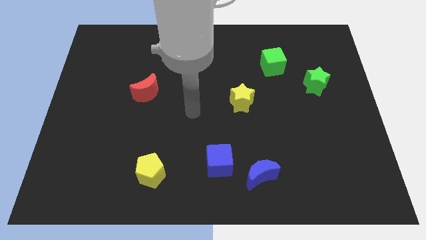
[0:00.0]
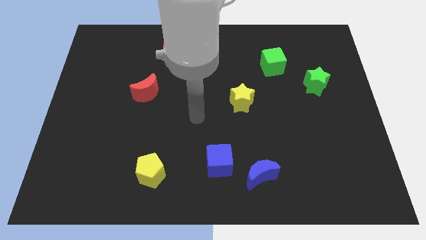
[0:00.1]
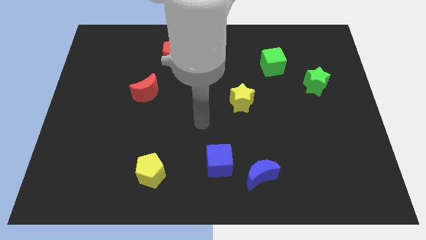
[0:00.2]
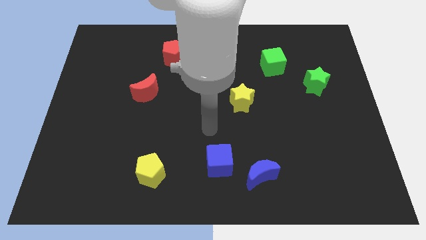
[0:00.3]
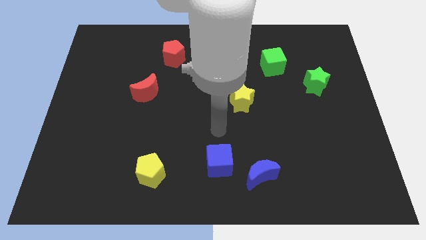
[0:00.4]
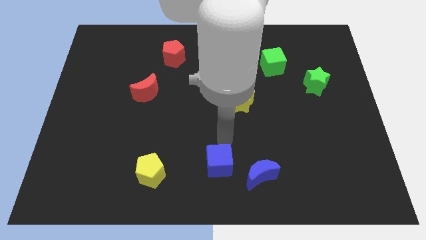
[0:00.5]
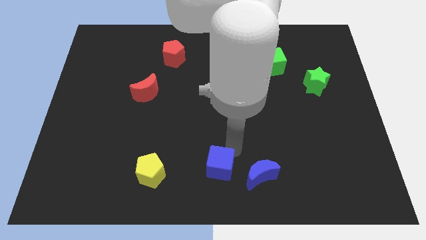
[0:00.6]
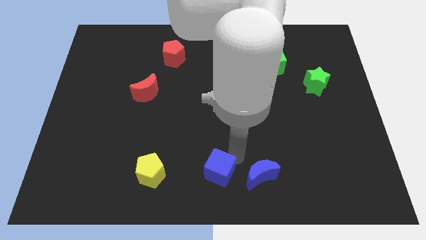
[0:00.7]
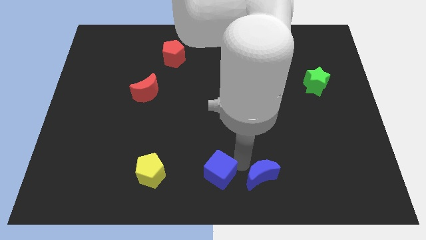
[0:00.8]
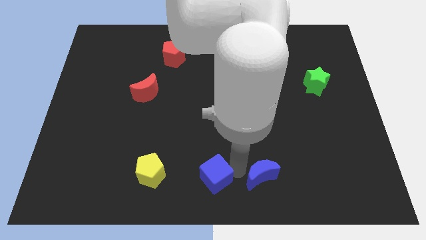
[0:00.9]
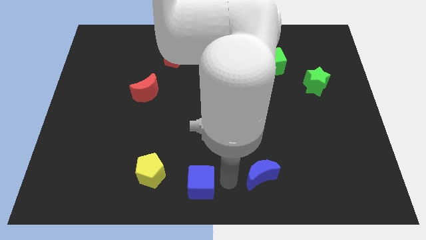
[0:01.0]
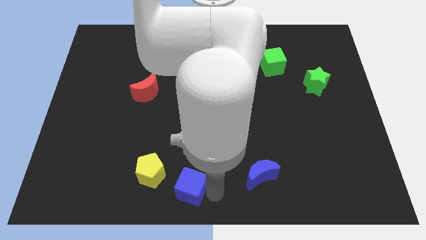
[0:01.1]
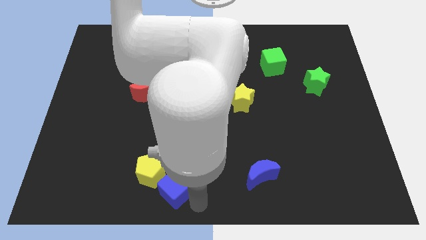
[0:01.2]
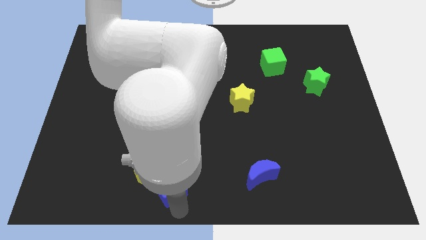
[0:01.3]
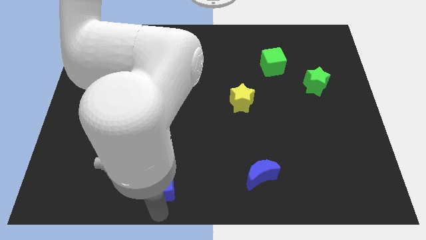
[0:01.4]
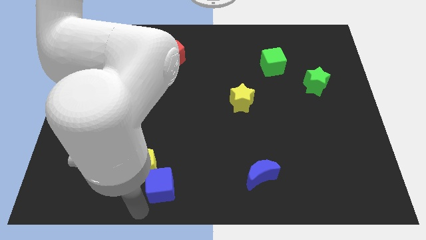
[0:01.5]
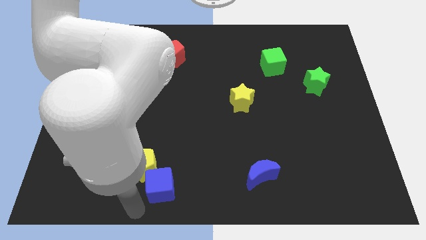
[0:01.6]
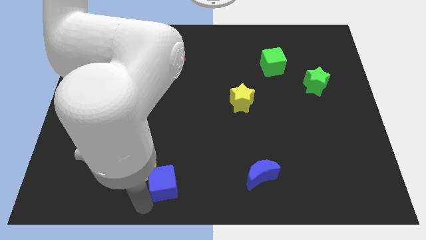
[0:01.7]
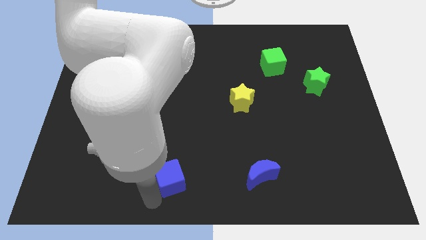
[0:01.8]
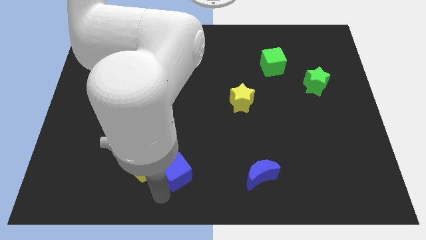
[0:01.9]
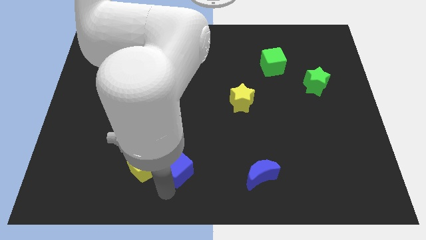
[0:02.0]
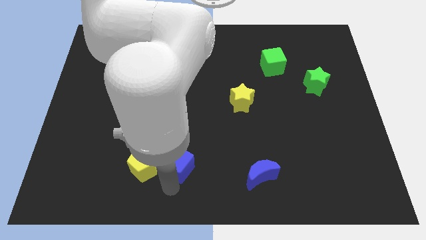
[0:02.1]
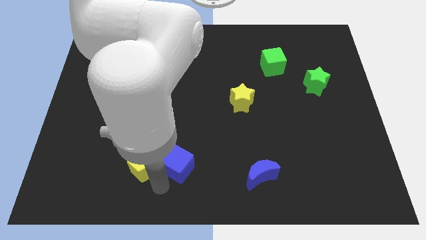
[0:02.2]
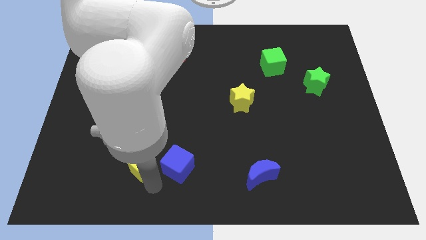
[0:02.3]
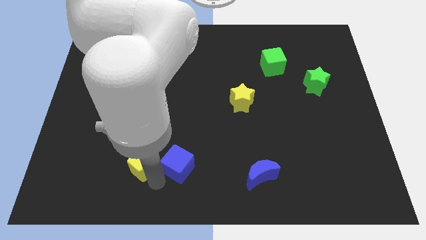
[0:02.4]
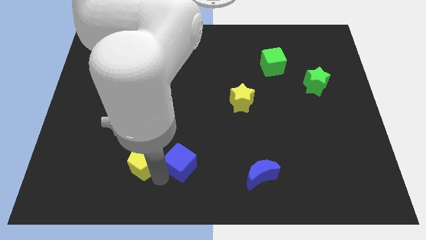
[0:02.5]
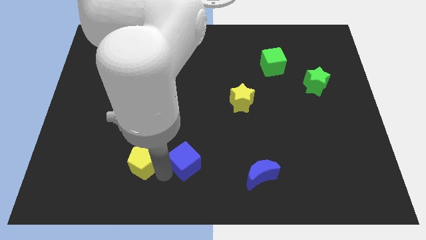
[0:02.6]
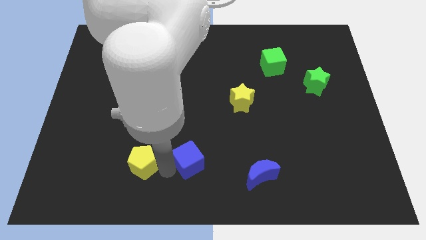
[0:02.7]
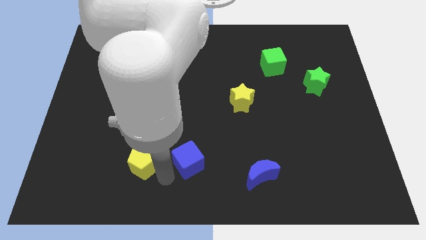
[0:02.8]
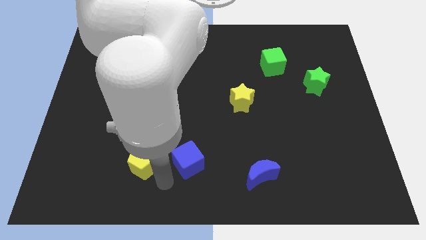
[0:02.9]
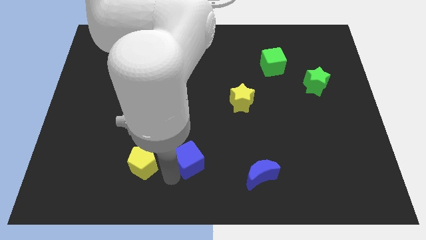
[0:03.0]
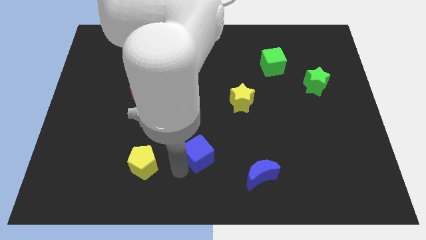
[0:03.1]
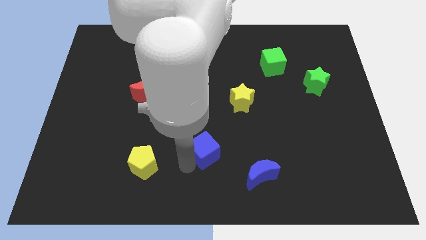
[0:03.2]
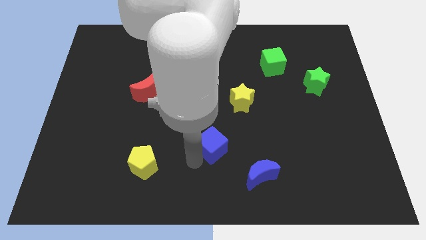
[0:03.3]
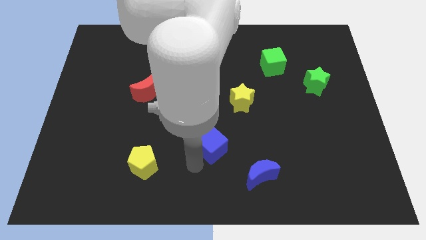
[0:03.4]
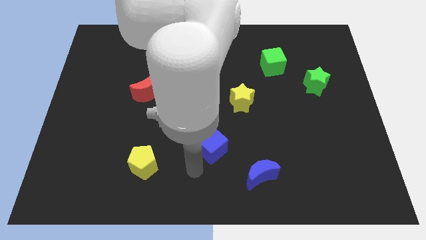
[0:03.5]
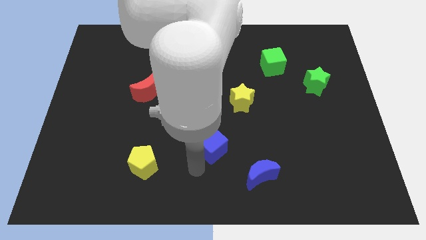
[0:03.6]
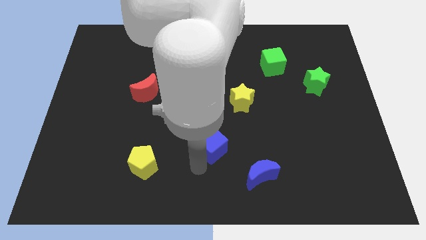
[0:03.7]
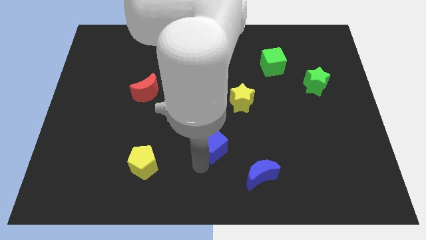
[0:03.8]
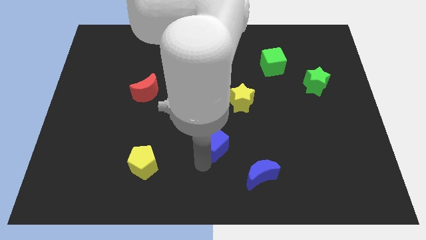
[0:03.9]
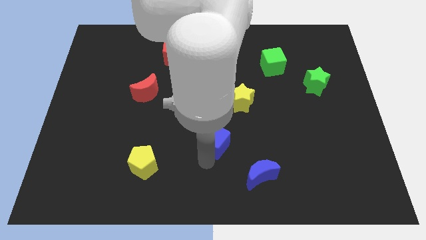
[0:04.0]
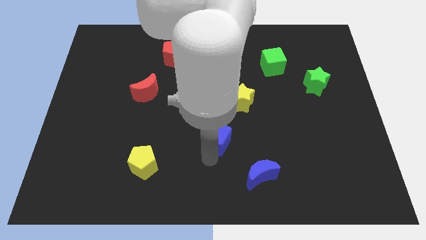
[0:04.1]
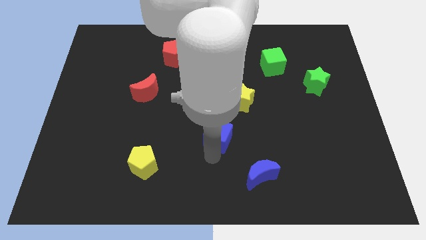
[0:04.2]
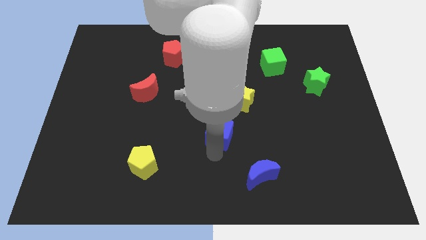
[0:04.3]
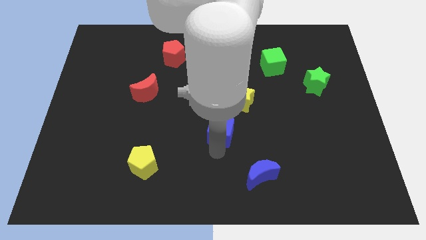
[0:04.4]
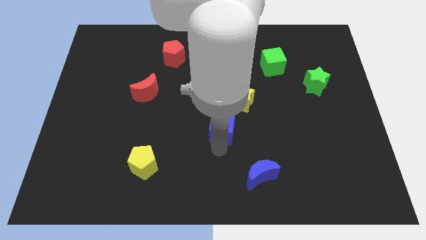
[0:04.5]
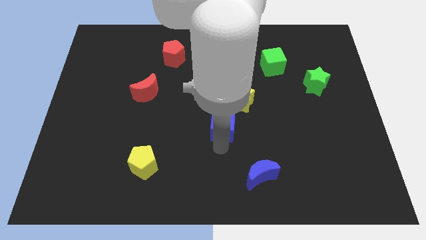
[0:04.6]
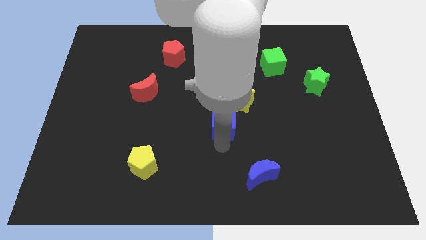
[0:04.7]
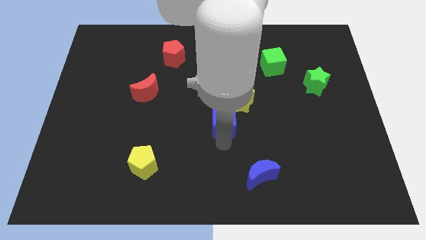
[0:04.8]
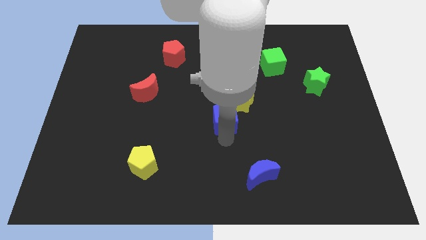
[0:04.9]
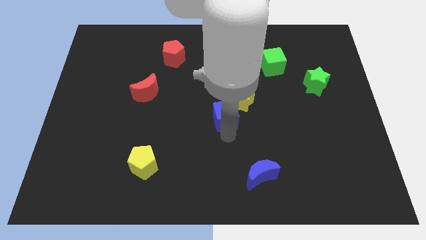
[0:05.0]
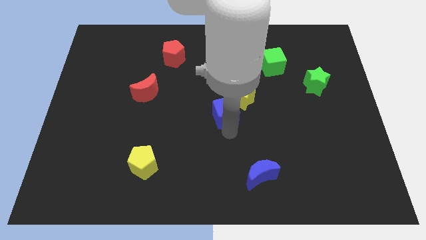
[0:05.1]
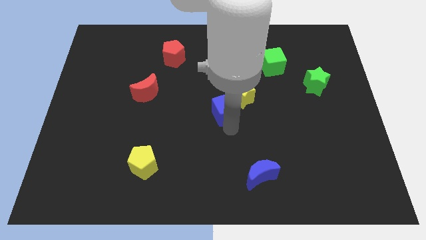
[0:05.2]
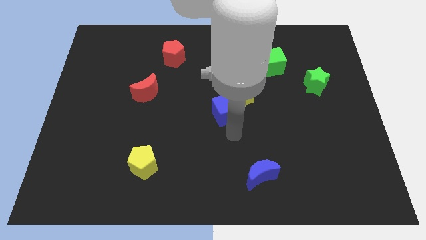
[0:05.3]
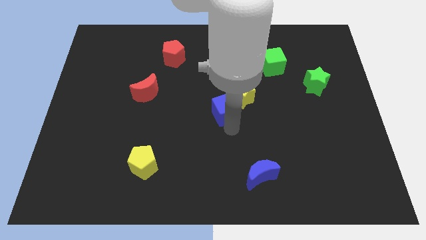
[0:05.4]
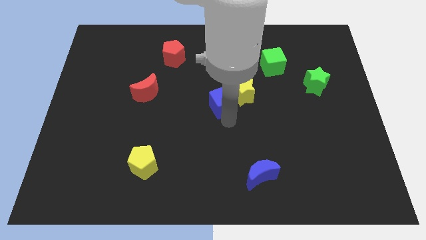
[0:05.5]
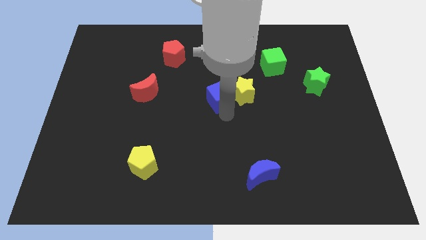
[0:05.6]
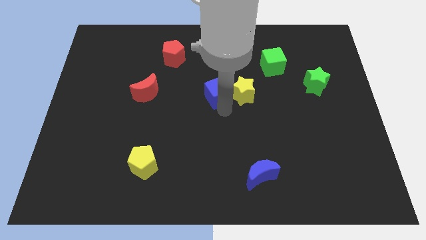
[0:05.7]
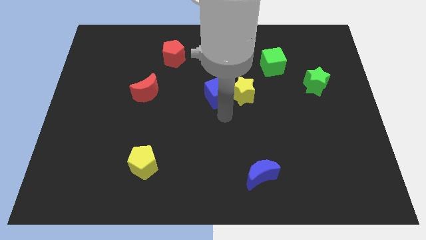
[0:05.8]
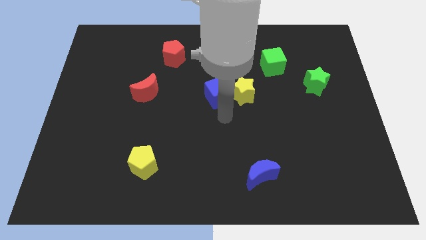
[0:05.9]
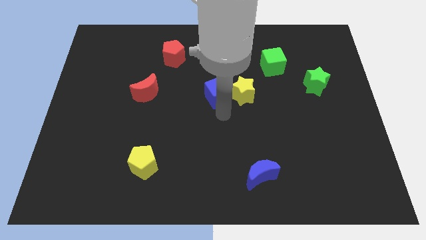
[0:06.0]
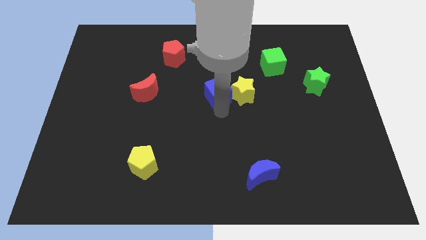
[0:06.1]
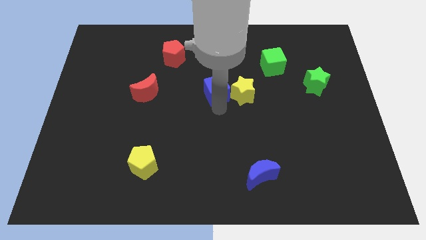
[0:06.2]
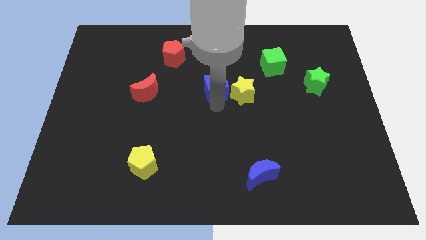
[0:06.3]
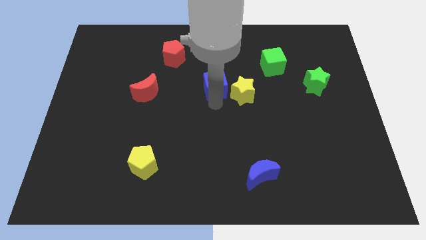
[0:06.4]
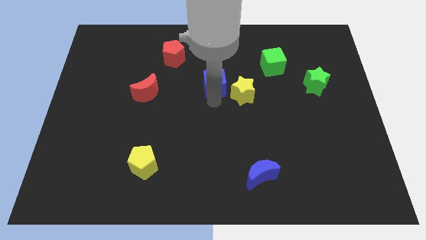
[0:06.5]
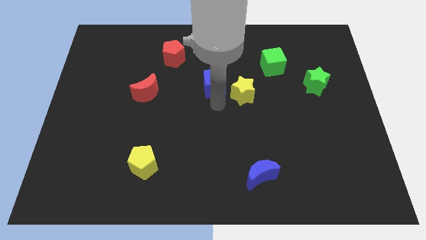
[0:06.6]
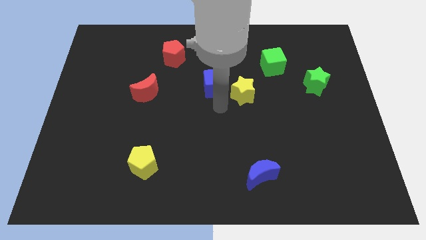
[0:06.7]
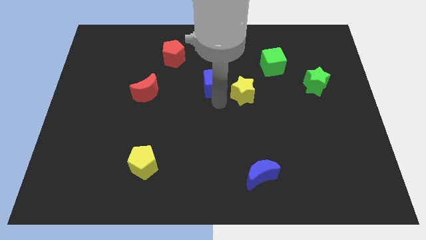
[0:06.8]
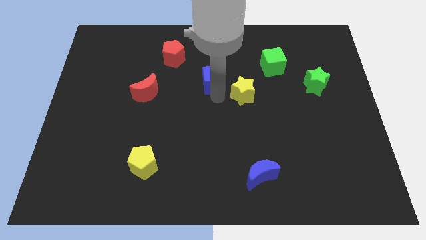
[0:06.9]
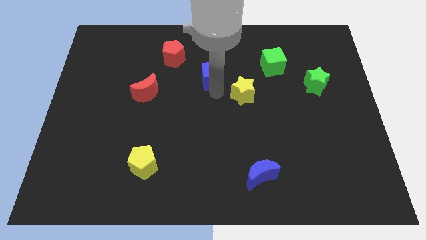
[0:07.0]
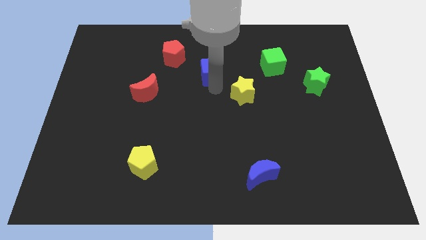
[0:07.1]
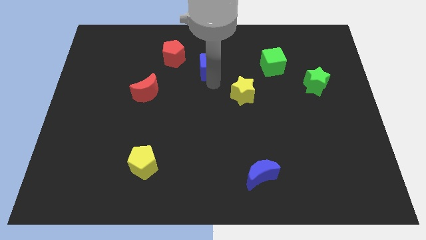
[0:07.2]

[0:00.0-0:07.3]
put the blue cube right of the red pentagon
